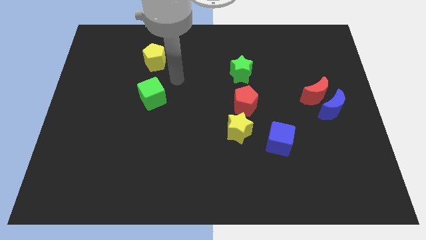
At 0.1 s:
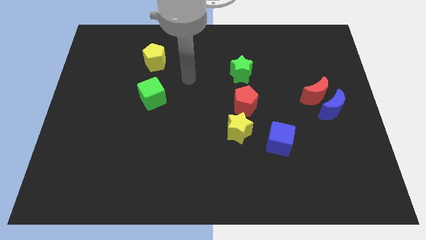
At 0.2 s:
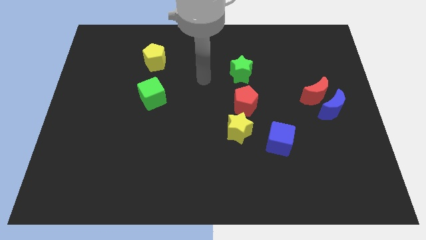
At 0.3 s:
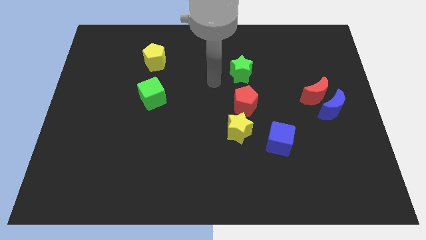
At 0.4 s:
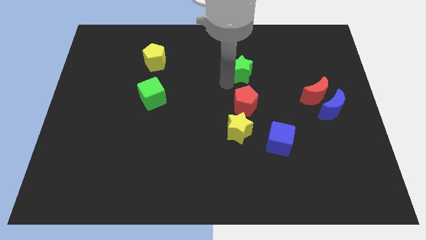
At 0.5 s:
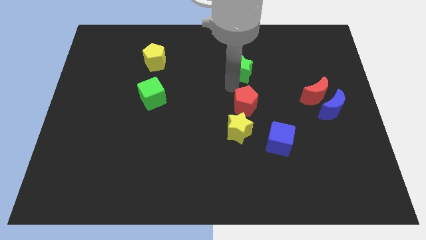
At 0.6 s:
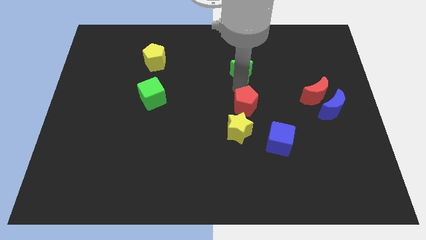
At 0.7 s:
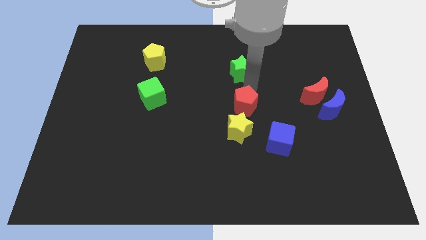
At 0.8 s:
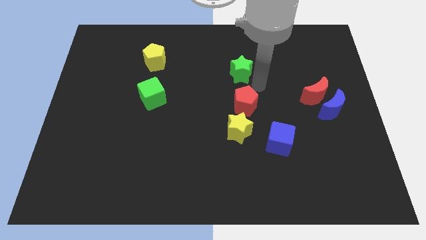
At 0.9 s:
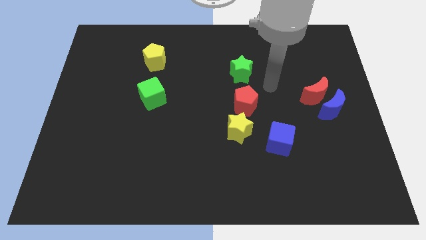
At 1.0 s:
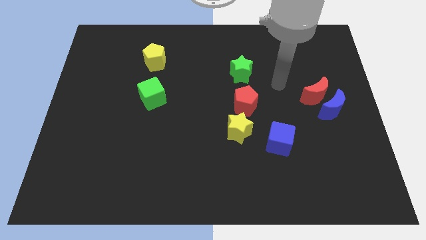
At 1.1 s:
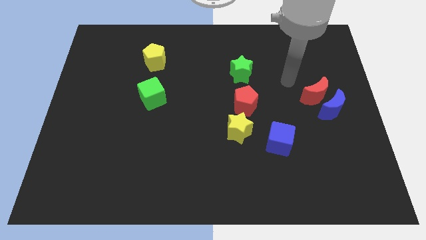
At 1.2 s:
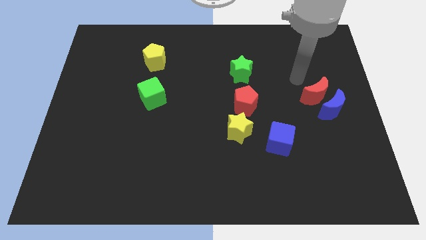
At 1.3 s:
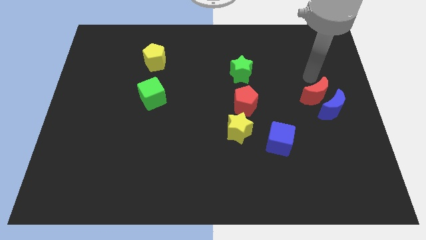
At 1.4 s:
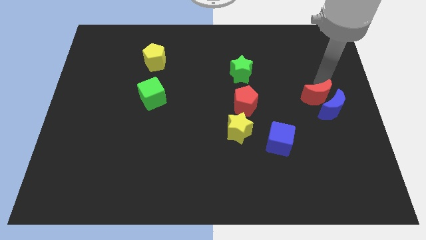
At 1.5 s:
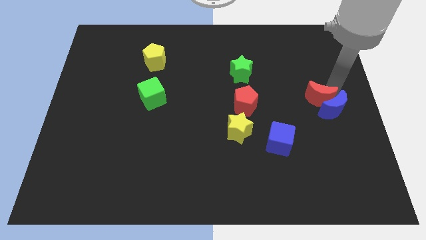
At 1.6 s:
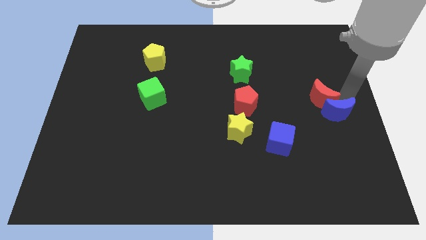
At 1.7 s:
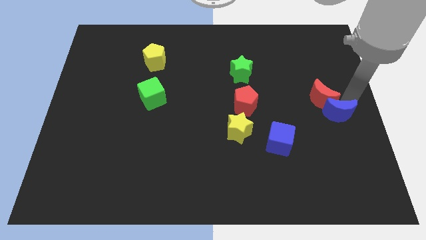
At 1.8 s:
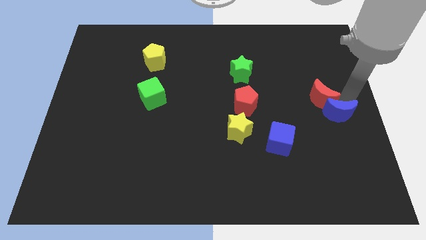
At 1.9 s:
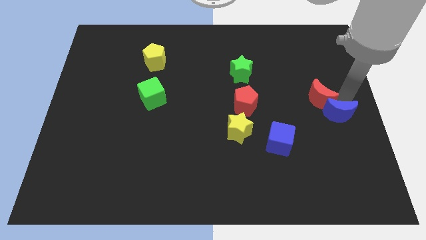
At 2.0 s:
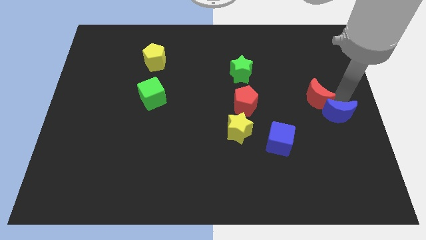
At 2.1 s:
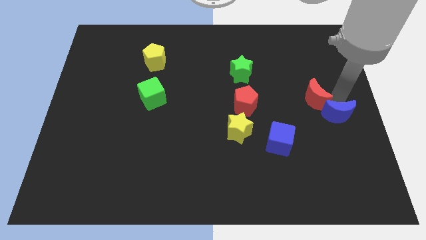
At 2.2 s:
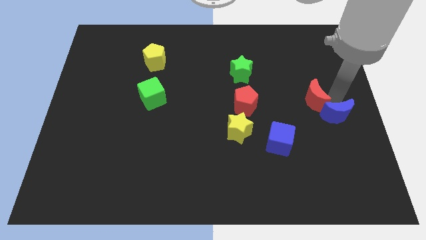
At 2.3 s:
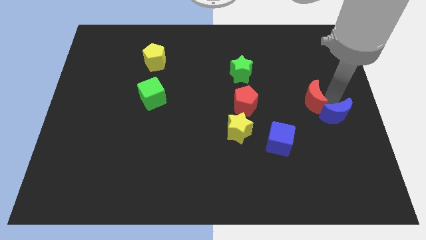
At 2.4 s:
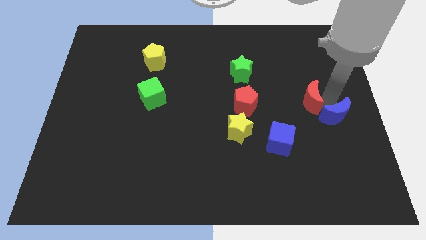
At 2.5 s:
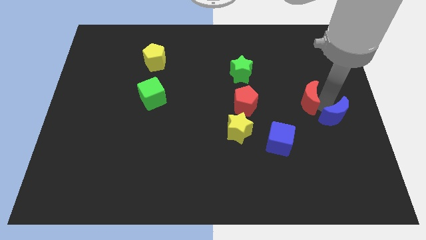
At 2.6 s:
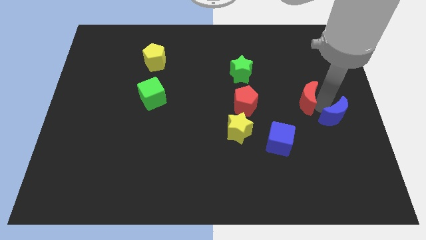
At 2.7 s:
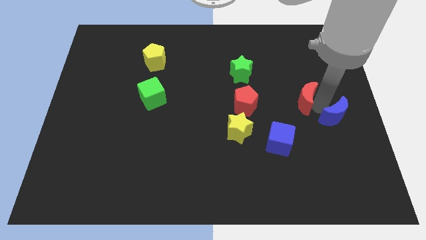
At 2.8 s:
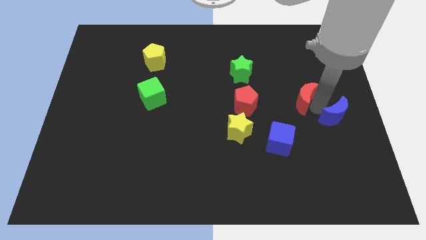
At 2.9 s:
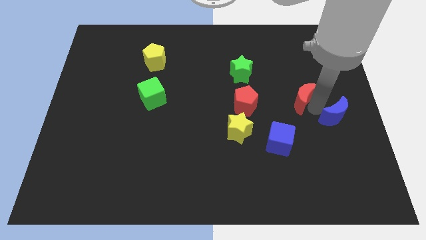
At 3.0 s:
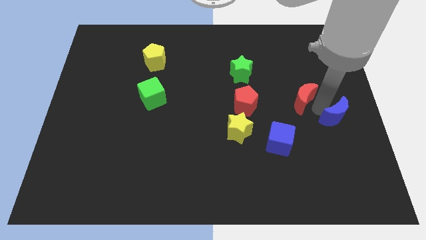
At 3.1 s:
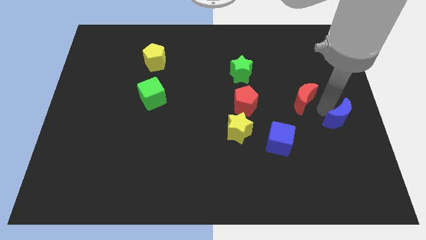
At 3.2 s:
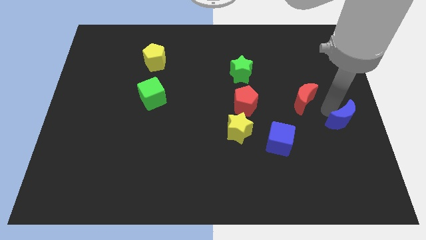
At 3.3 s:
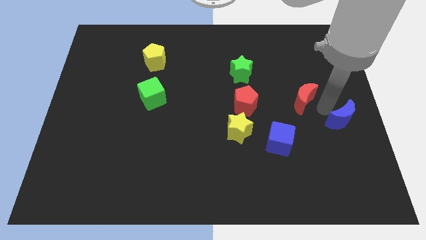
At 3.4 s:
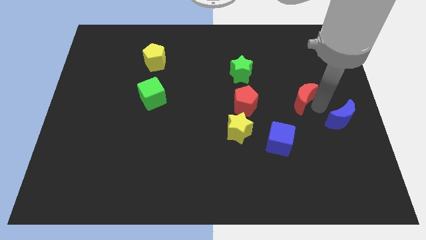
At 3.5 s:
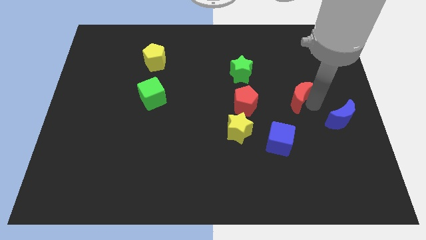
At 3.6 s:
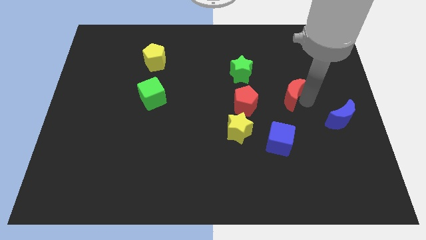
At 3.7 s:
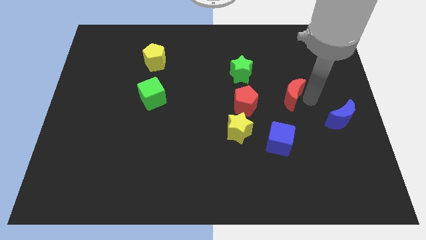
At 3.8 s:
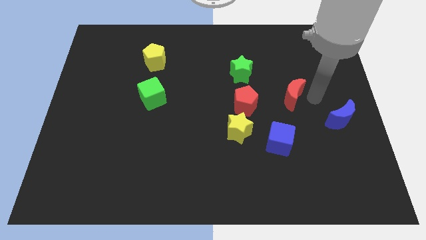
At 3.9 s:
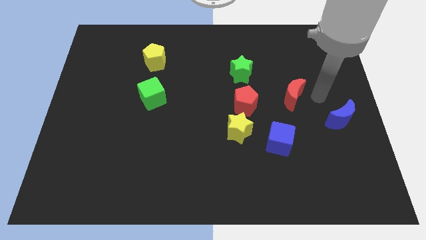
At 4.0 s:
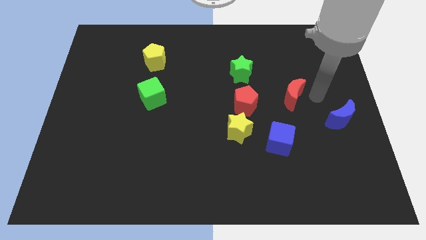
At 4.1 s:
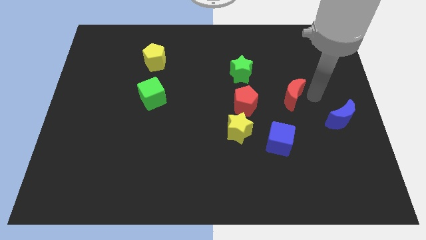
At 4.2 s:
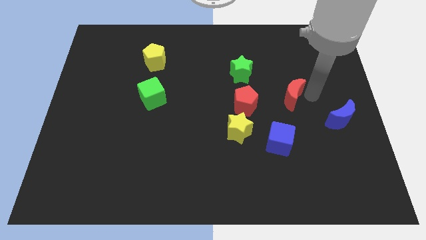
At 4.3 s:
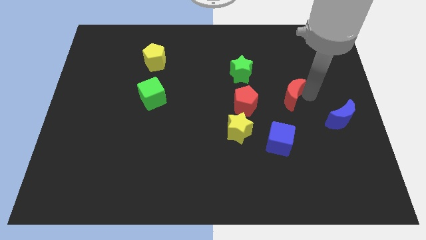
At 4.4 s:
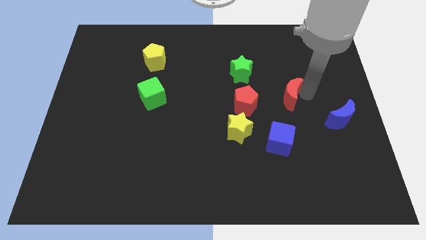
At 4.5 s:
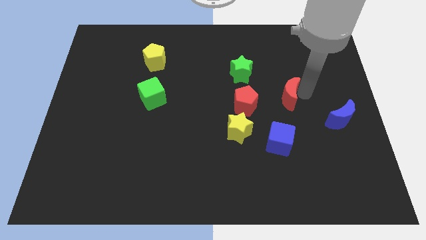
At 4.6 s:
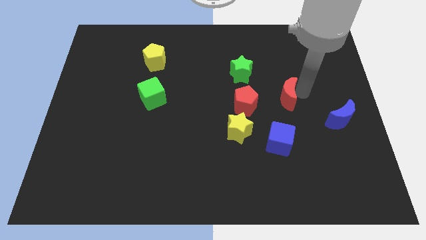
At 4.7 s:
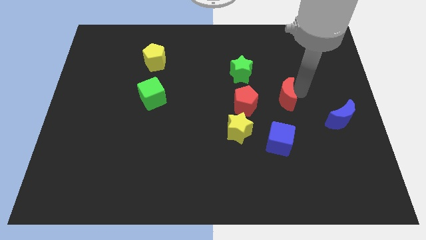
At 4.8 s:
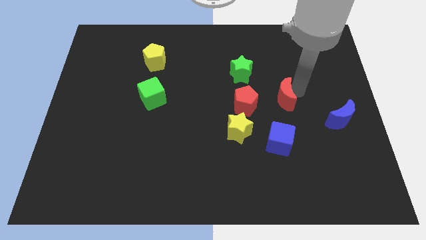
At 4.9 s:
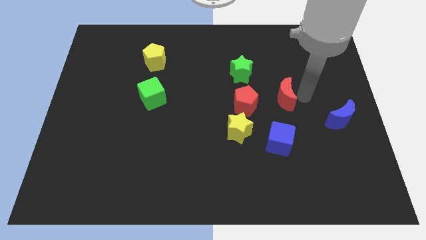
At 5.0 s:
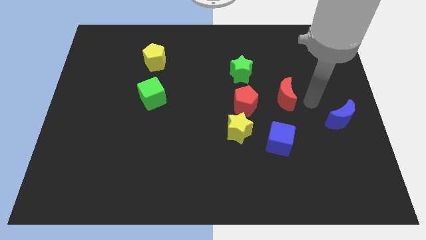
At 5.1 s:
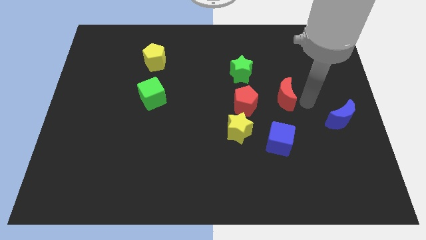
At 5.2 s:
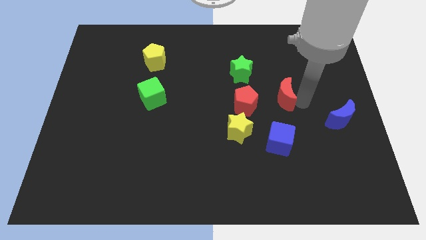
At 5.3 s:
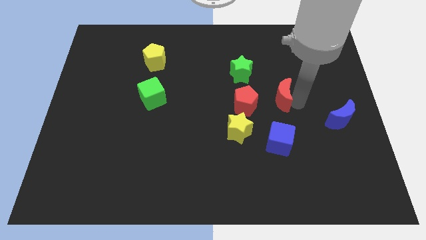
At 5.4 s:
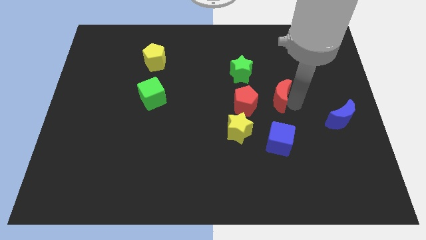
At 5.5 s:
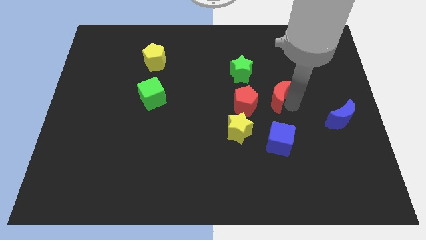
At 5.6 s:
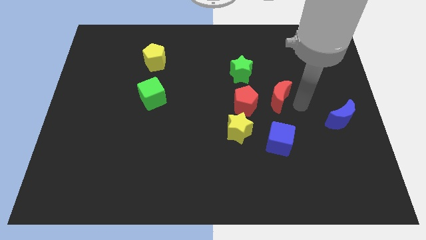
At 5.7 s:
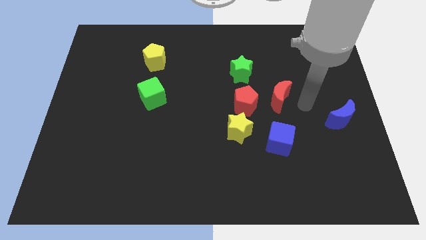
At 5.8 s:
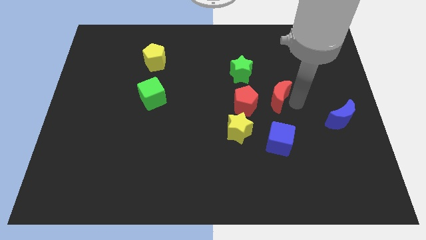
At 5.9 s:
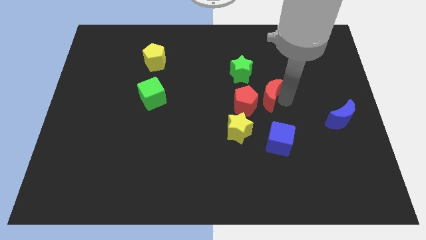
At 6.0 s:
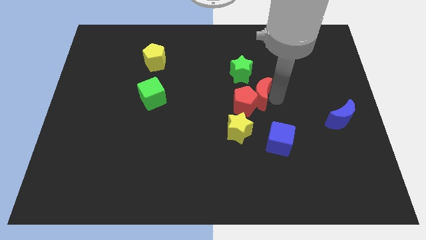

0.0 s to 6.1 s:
move the red moon to the center of the board

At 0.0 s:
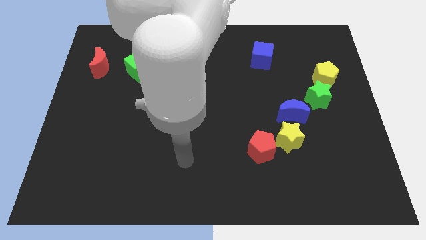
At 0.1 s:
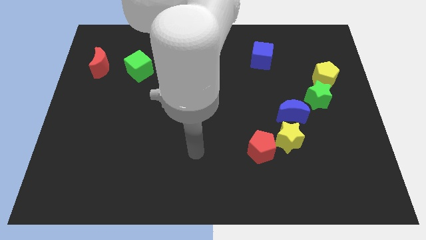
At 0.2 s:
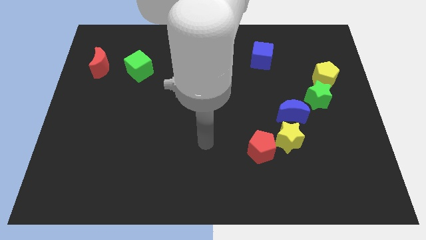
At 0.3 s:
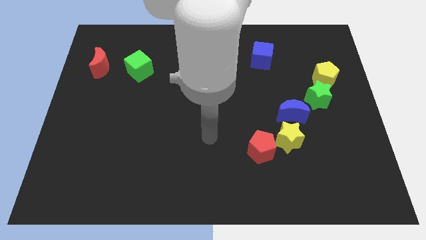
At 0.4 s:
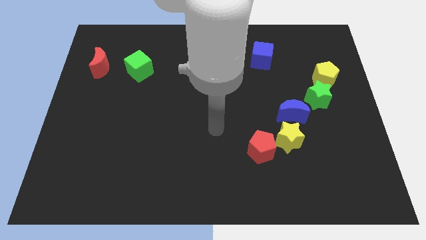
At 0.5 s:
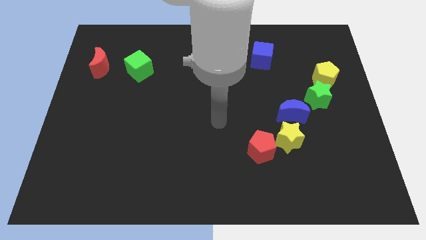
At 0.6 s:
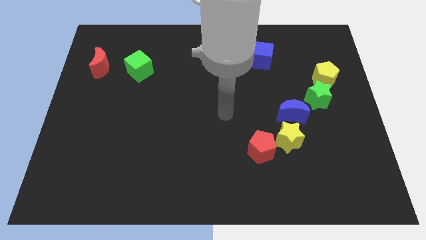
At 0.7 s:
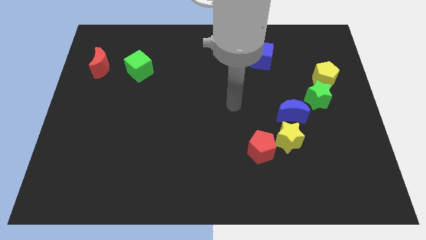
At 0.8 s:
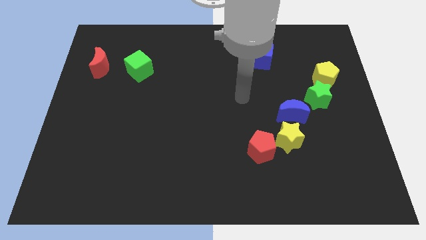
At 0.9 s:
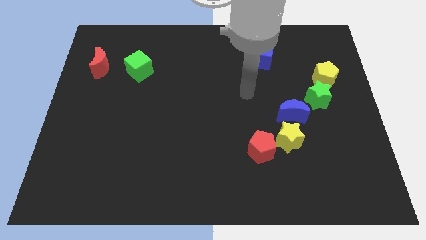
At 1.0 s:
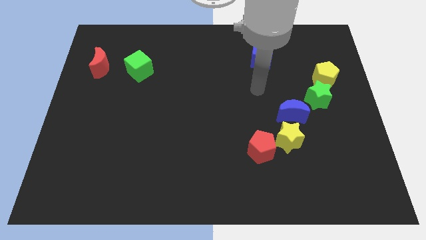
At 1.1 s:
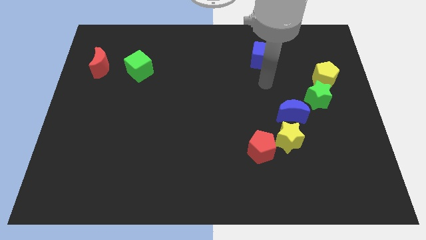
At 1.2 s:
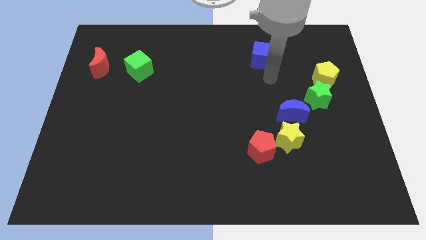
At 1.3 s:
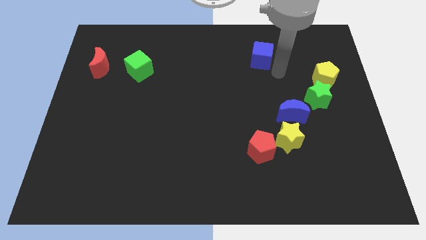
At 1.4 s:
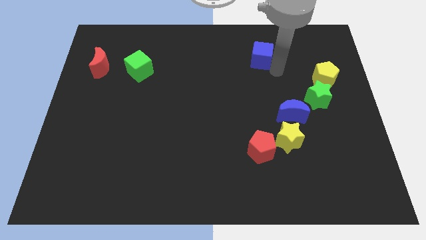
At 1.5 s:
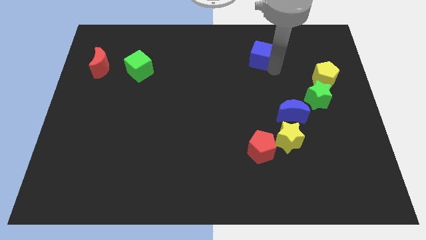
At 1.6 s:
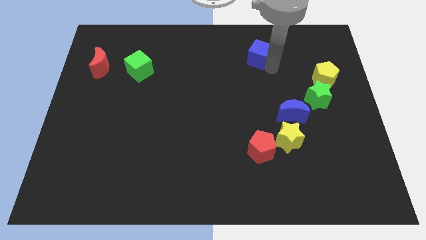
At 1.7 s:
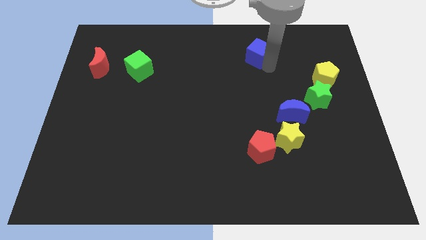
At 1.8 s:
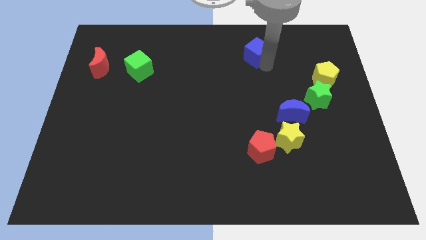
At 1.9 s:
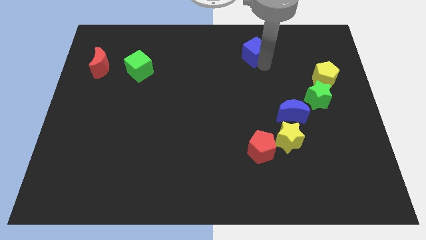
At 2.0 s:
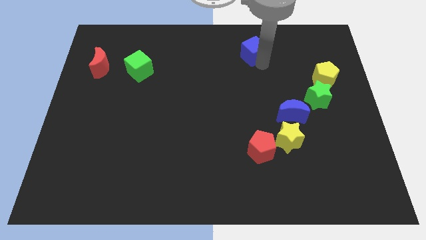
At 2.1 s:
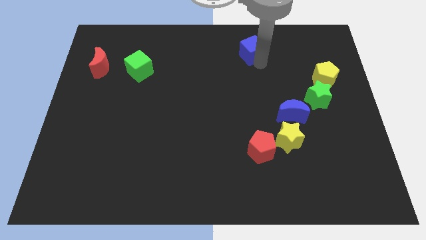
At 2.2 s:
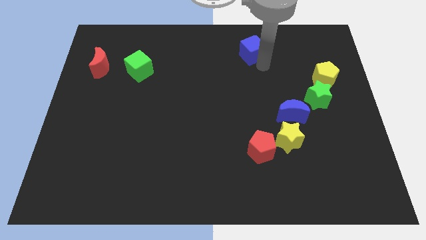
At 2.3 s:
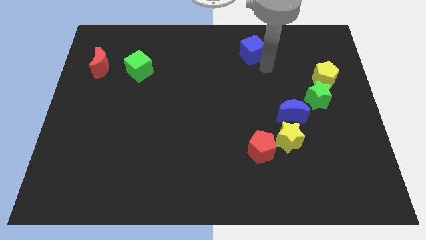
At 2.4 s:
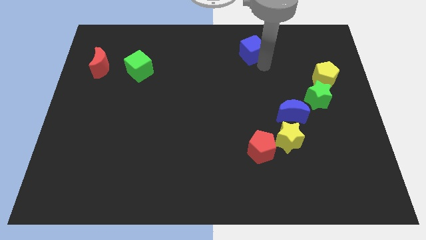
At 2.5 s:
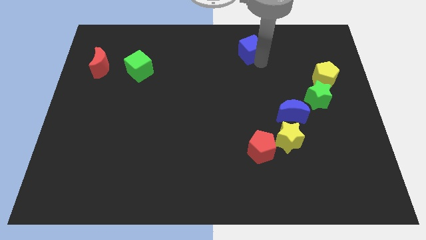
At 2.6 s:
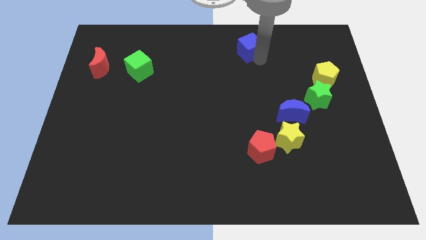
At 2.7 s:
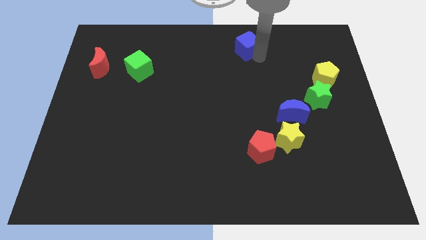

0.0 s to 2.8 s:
put the blue cube to the top side
